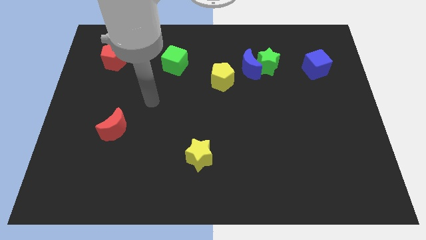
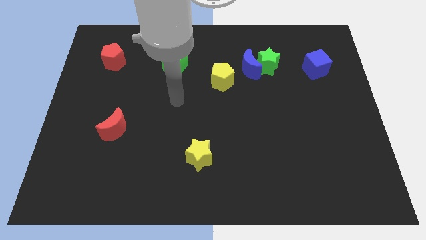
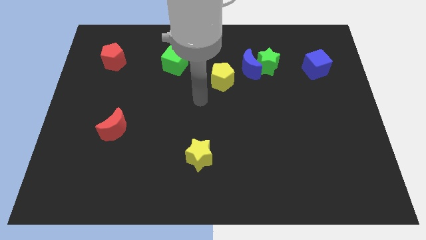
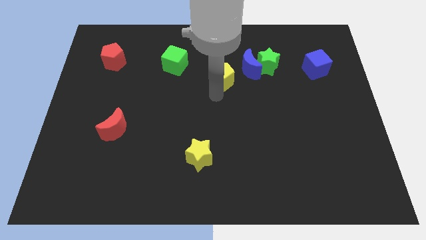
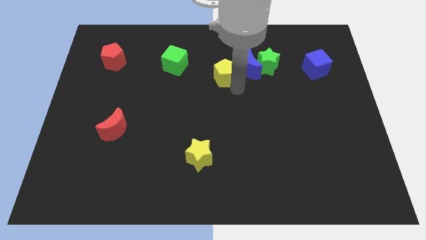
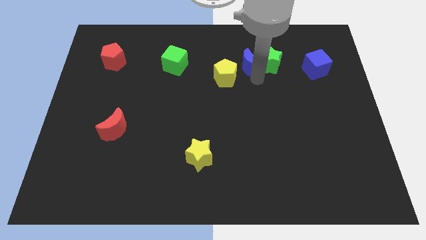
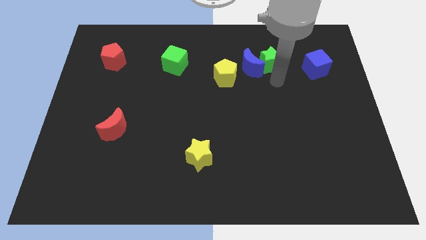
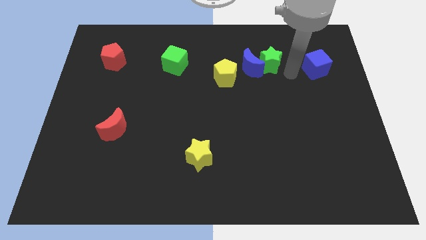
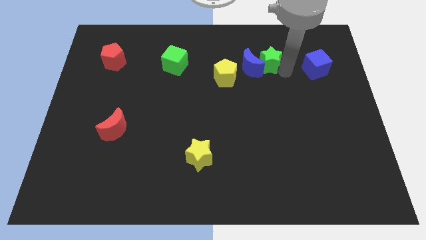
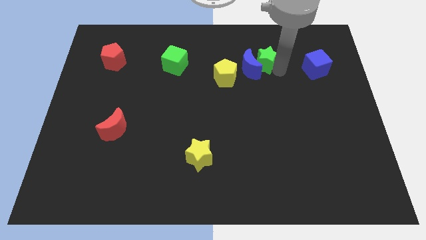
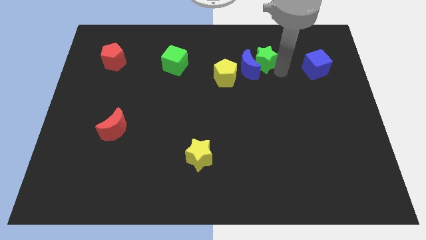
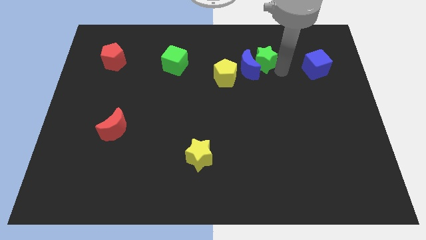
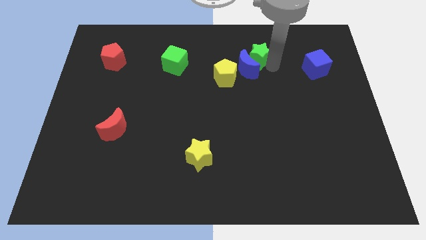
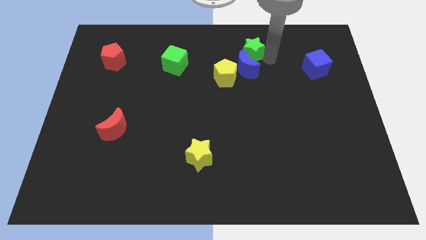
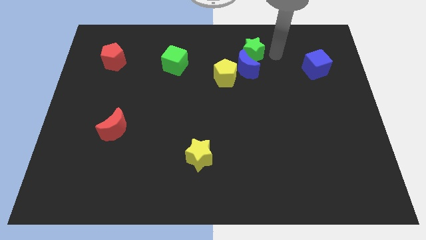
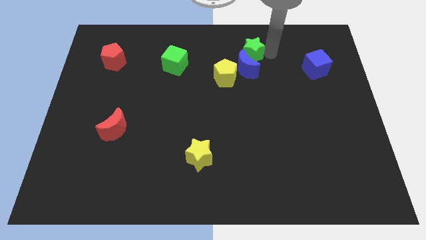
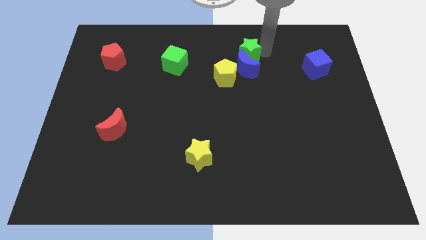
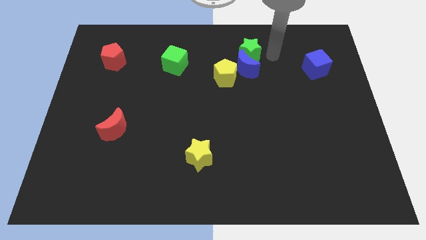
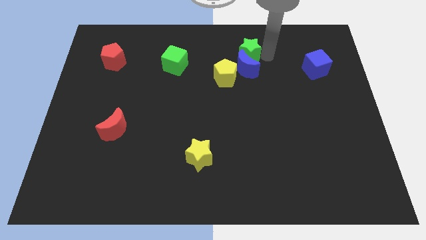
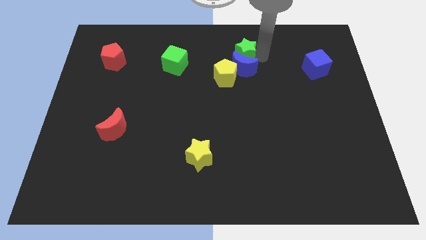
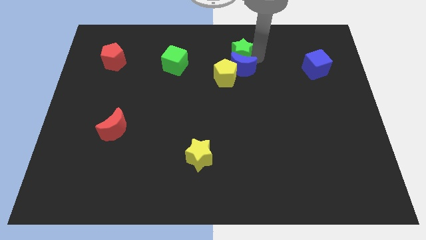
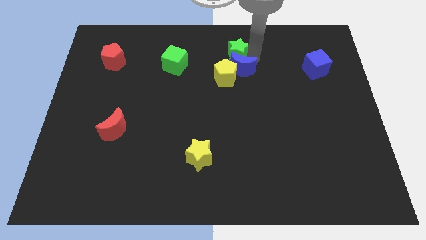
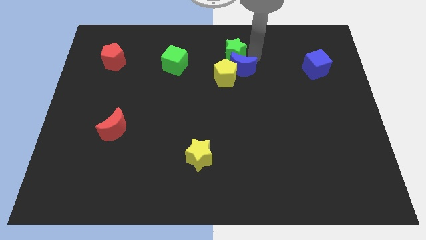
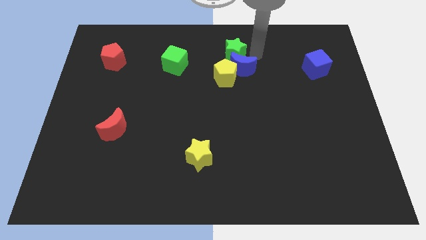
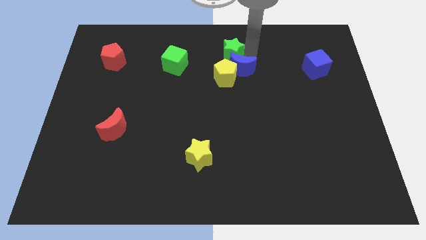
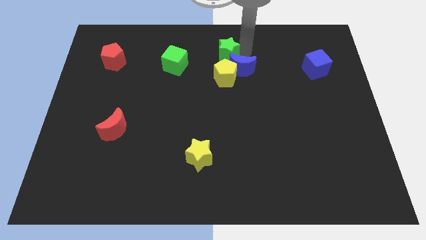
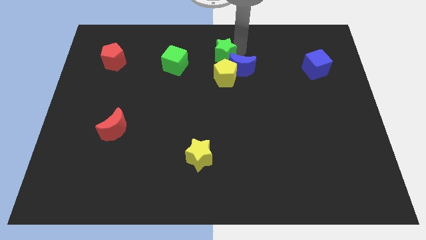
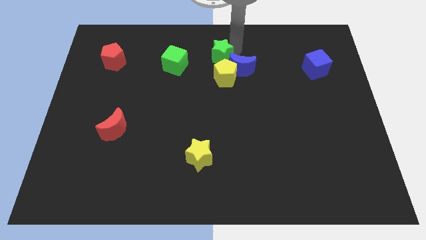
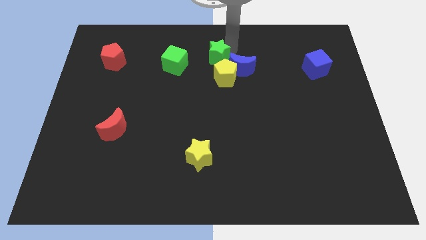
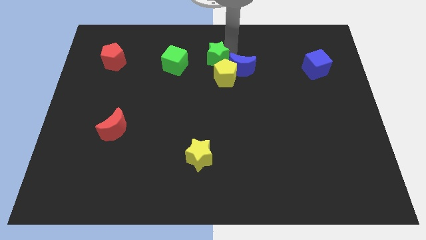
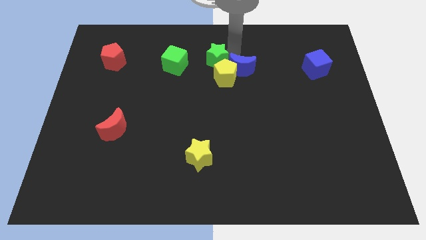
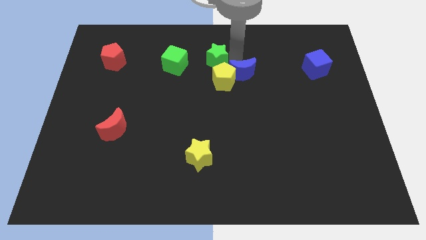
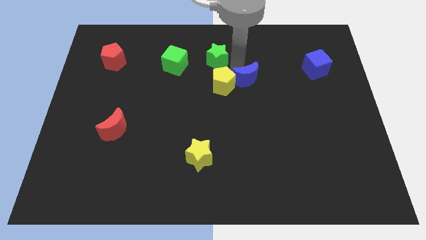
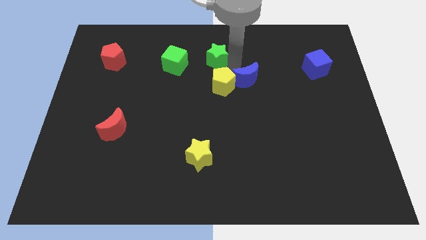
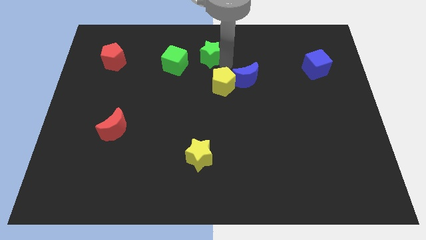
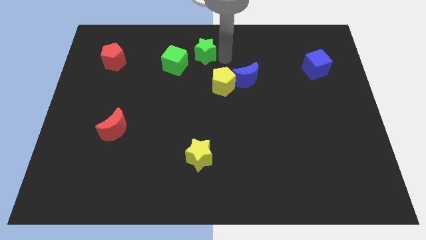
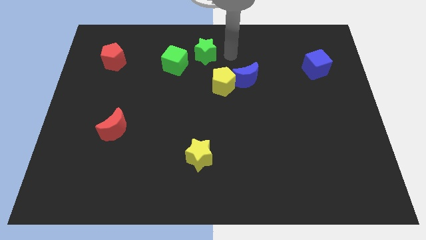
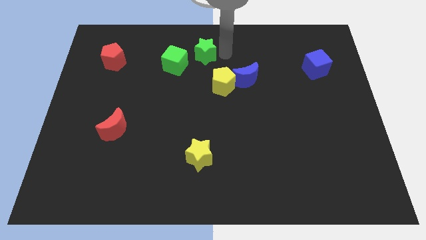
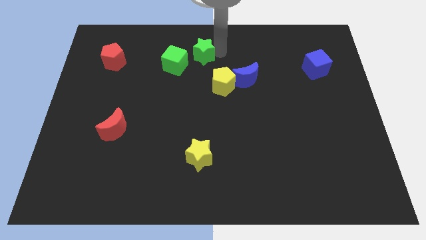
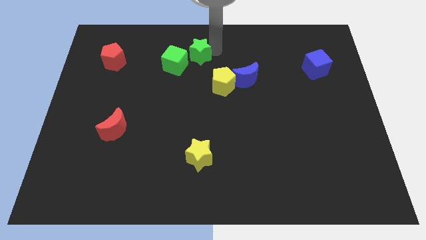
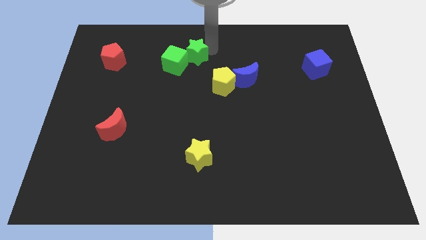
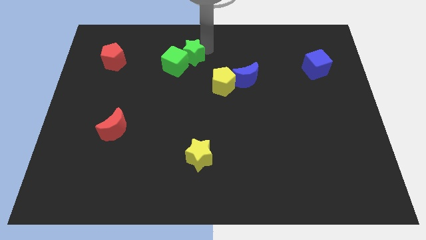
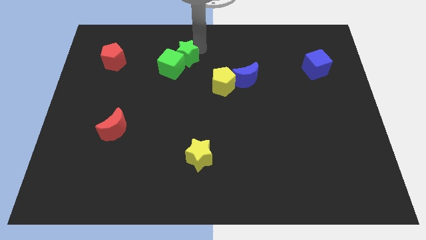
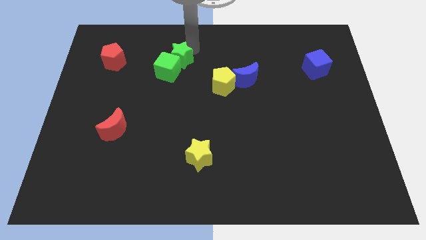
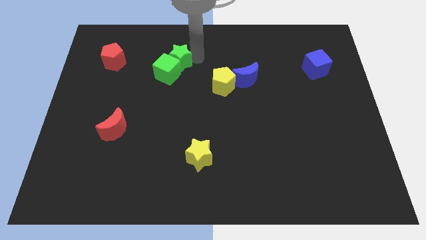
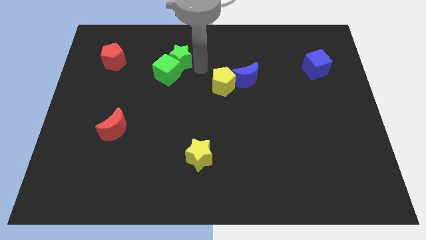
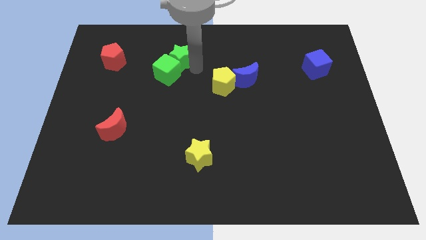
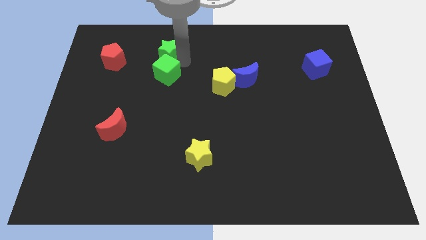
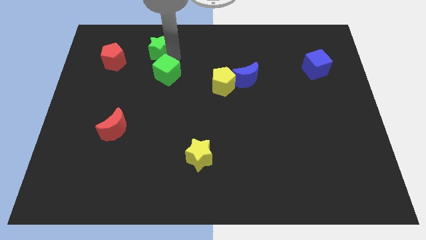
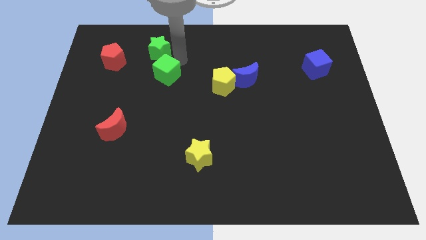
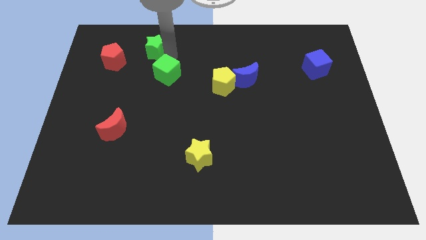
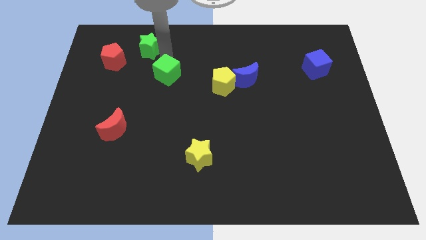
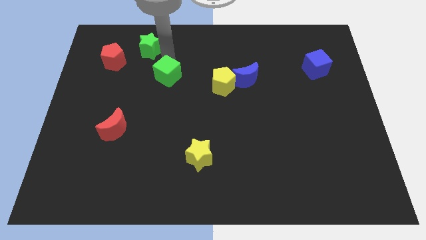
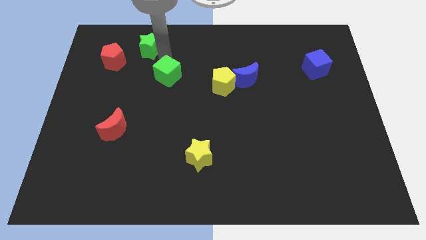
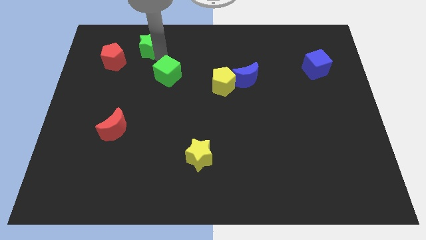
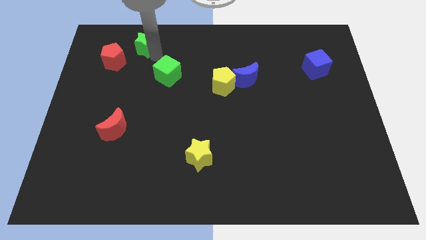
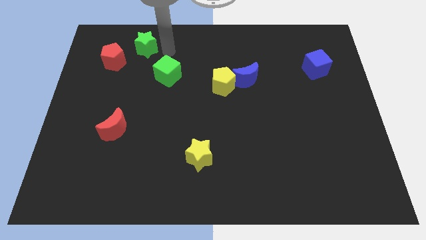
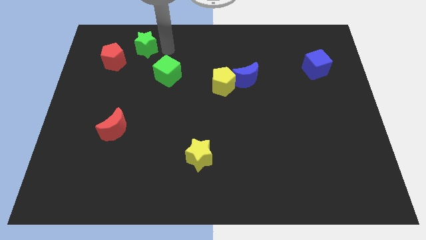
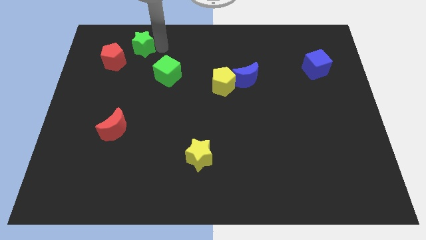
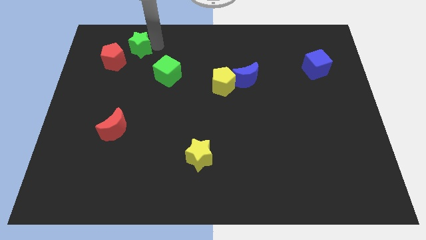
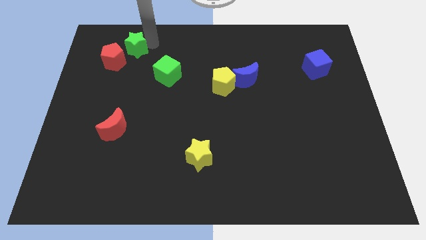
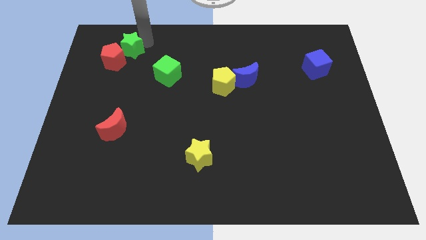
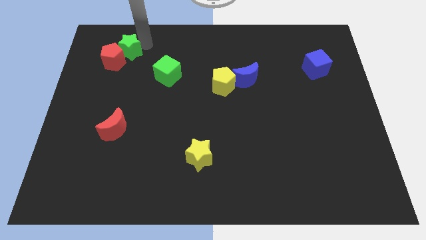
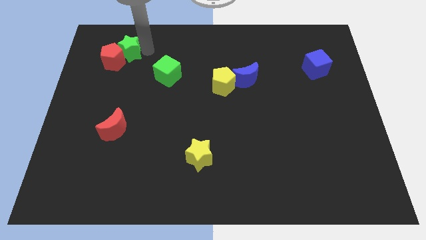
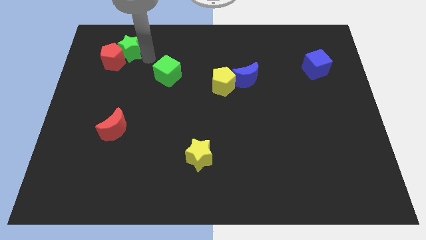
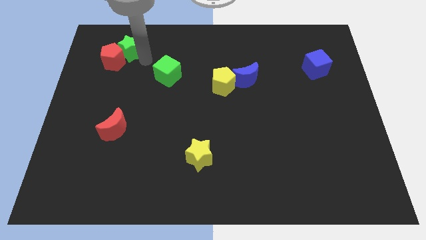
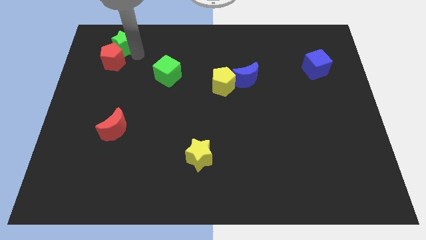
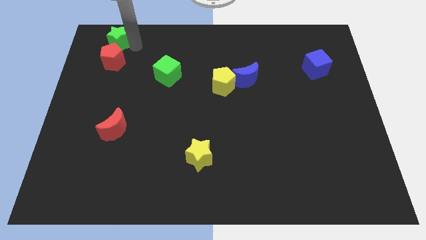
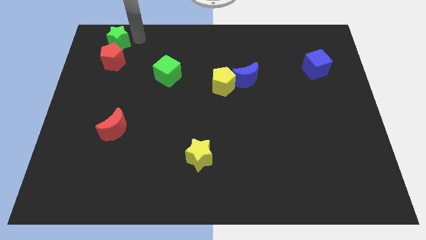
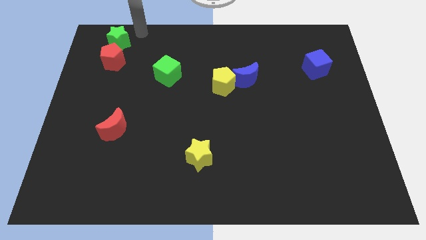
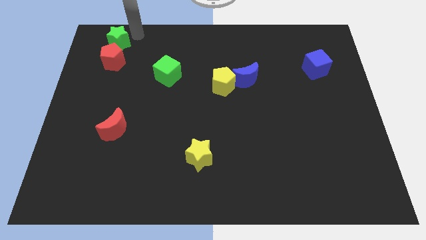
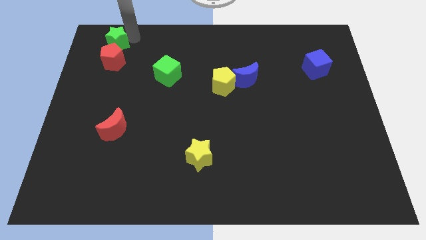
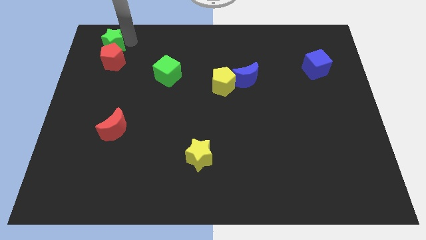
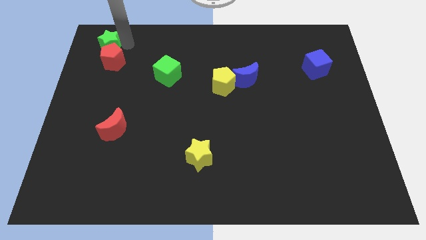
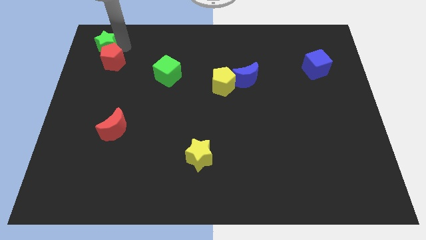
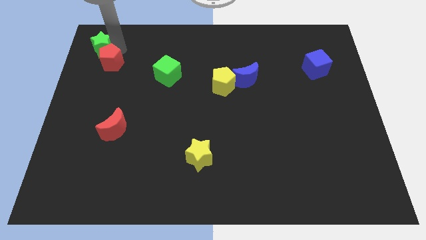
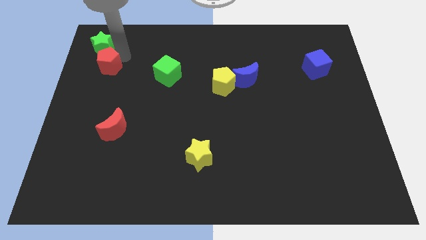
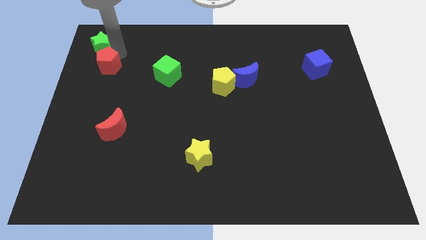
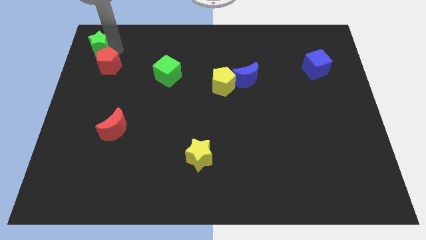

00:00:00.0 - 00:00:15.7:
slide the green star to the top left corner
